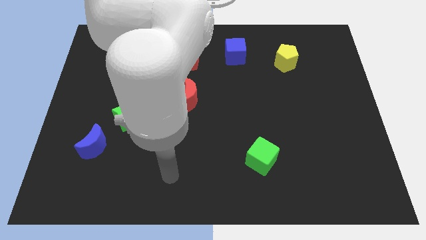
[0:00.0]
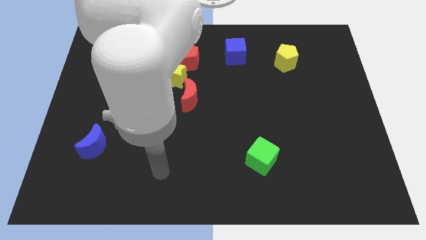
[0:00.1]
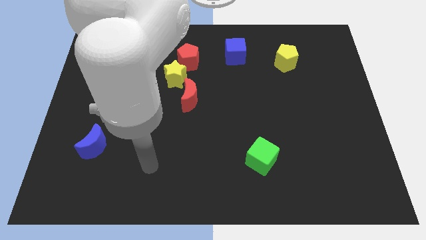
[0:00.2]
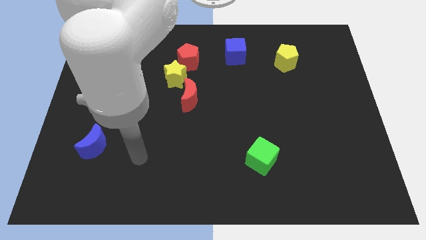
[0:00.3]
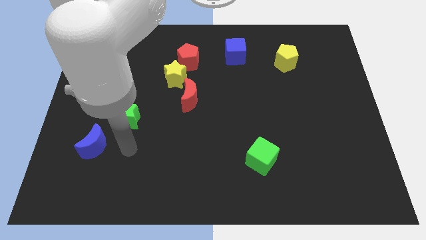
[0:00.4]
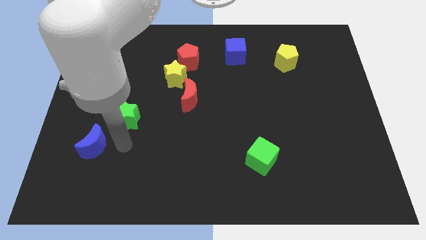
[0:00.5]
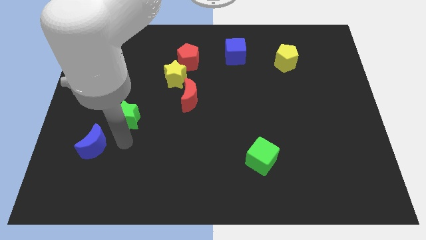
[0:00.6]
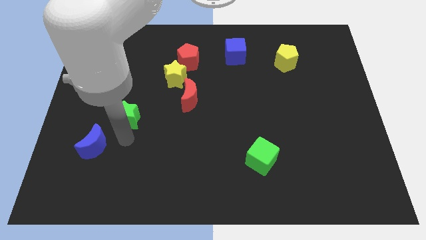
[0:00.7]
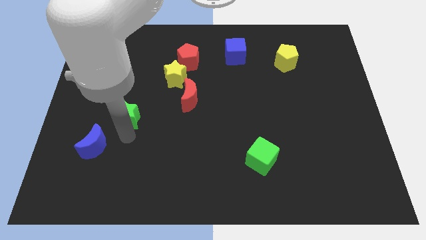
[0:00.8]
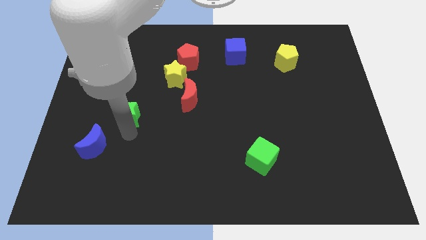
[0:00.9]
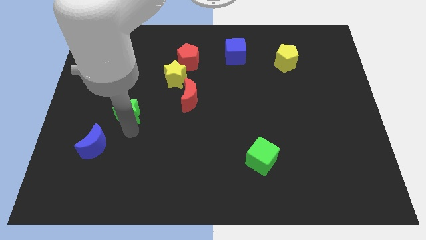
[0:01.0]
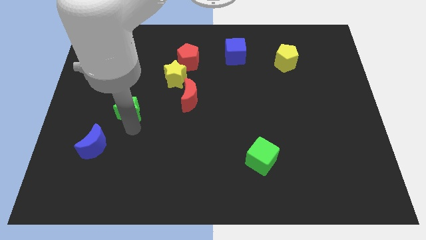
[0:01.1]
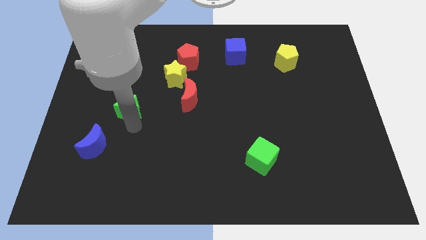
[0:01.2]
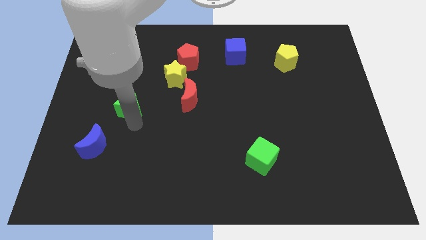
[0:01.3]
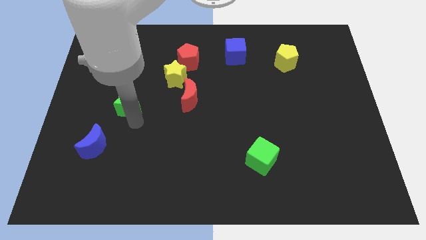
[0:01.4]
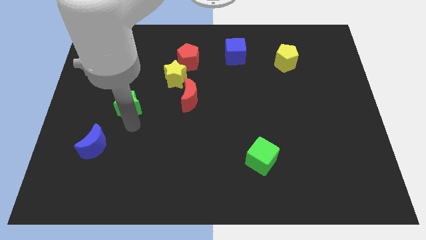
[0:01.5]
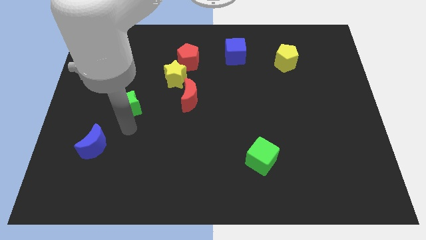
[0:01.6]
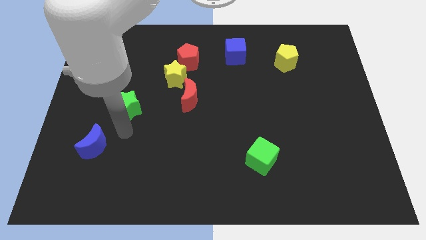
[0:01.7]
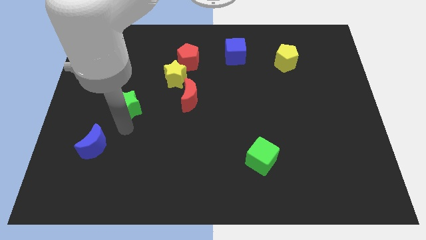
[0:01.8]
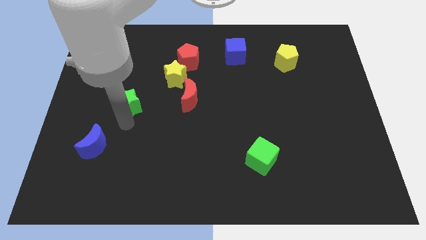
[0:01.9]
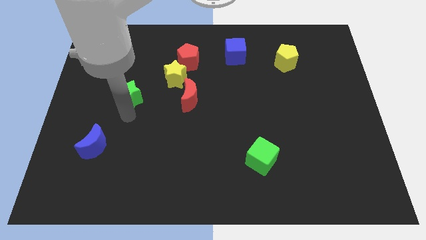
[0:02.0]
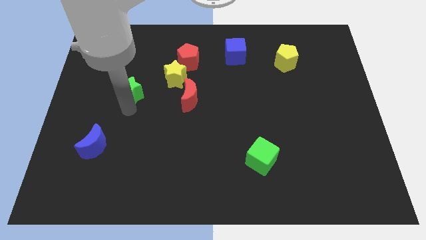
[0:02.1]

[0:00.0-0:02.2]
slightly slide the green star up

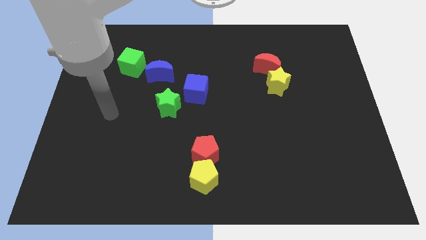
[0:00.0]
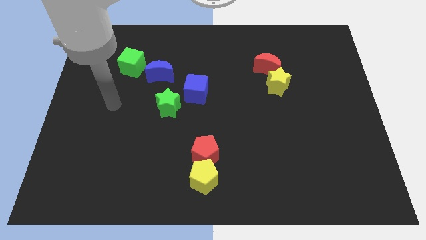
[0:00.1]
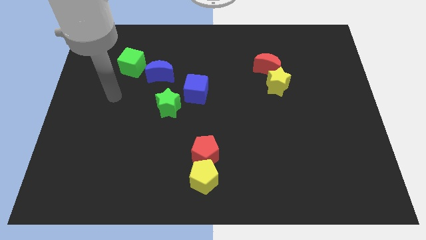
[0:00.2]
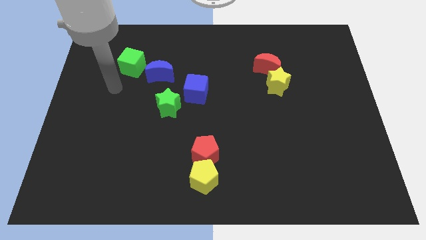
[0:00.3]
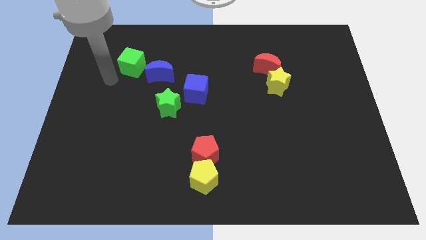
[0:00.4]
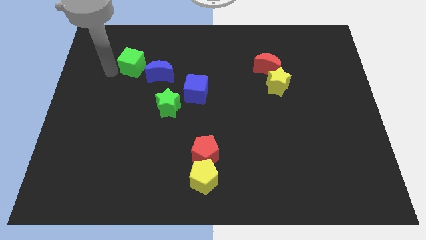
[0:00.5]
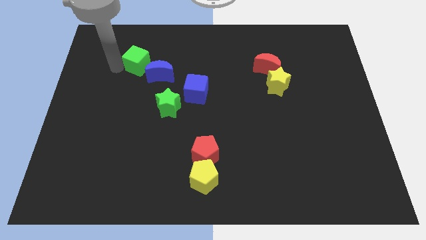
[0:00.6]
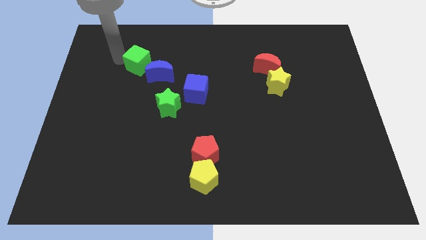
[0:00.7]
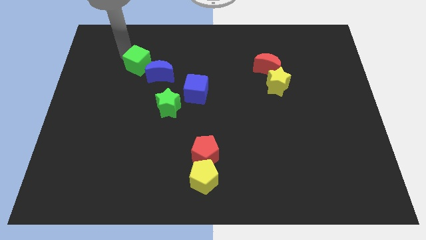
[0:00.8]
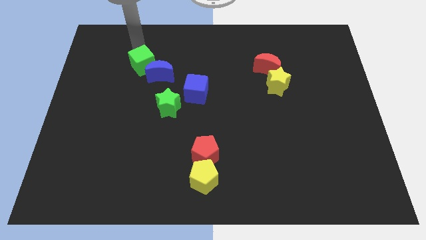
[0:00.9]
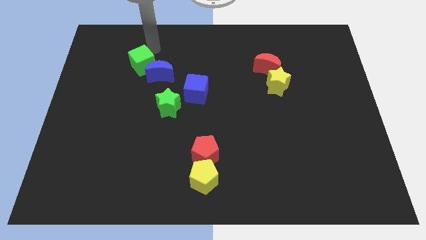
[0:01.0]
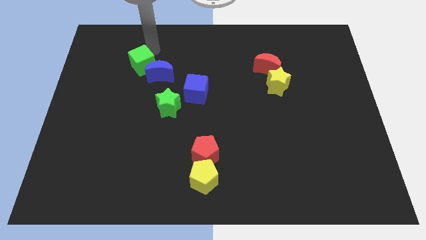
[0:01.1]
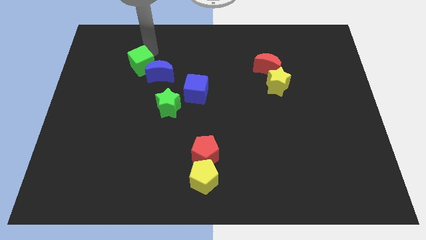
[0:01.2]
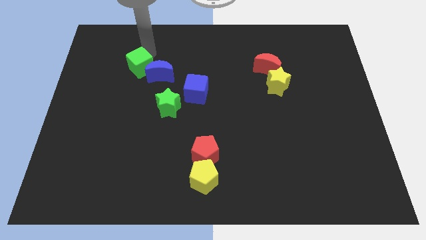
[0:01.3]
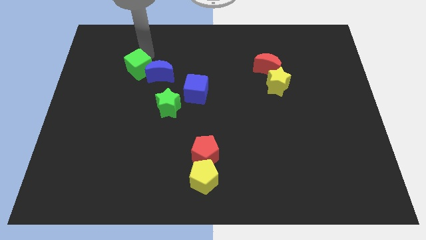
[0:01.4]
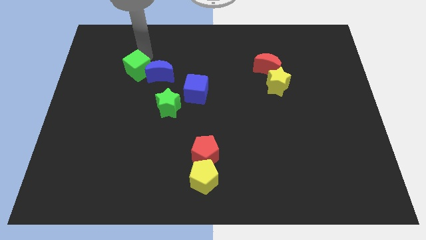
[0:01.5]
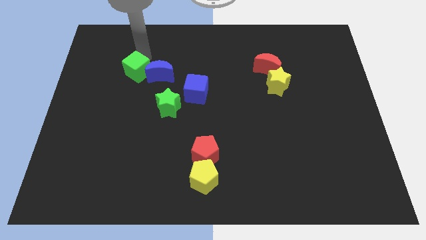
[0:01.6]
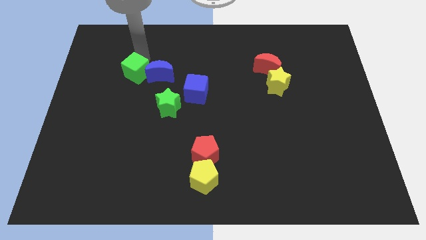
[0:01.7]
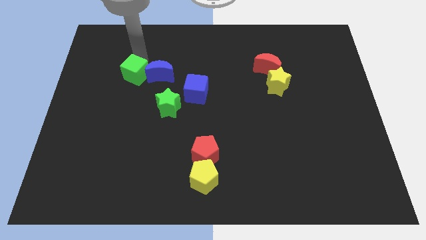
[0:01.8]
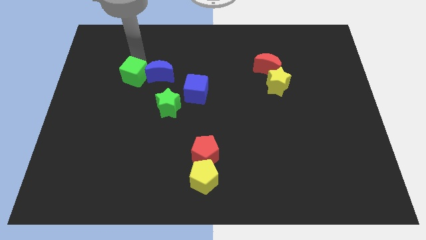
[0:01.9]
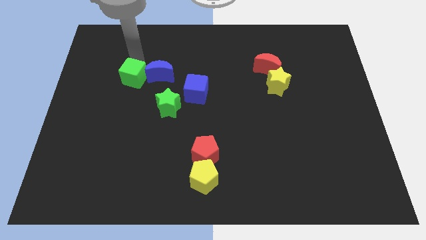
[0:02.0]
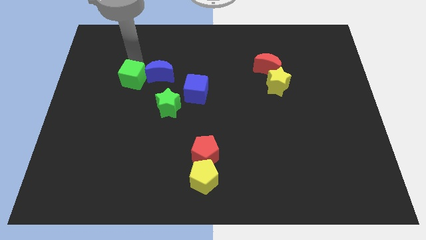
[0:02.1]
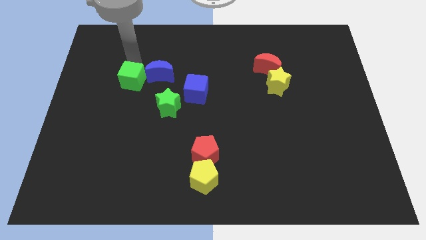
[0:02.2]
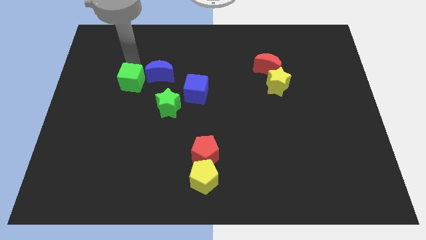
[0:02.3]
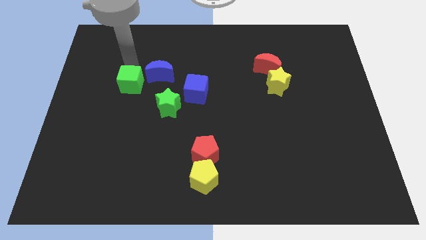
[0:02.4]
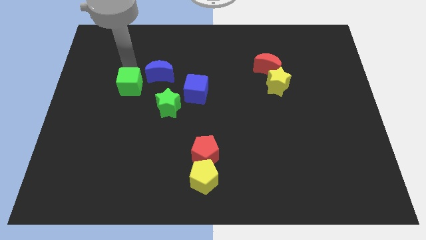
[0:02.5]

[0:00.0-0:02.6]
slightly push the green cube down

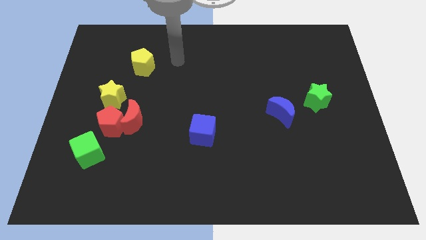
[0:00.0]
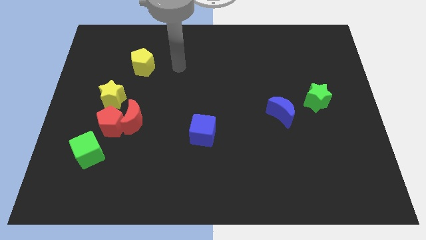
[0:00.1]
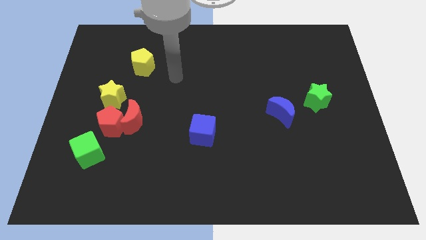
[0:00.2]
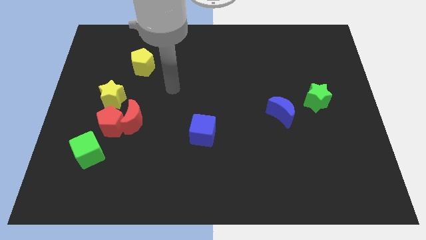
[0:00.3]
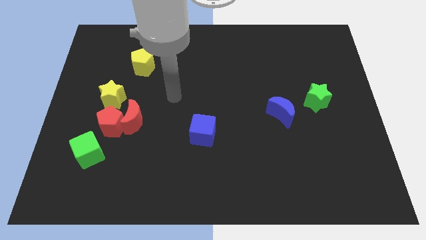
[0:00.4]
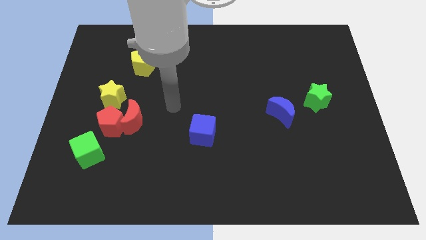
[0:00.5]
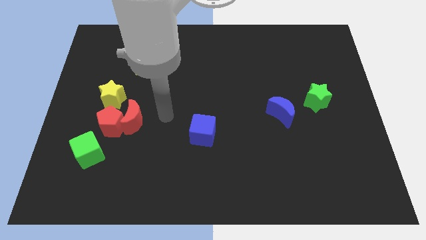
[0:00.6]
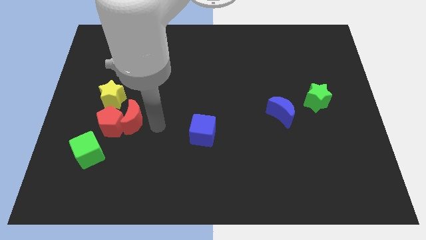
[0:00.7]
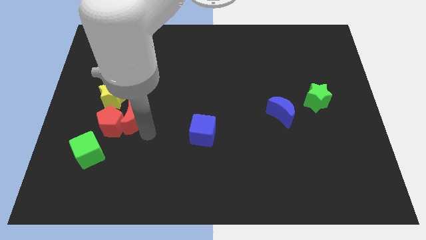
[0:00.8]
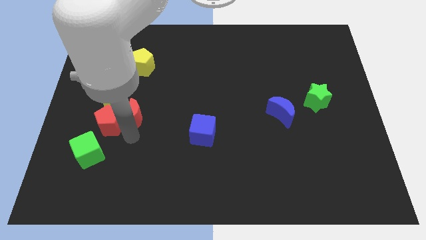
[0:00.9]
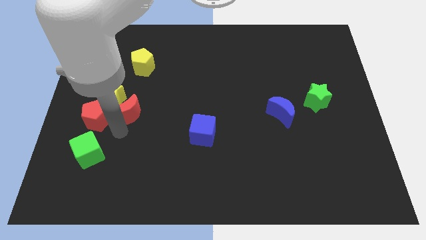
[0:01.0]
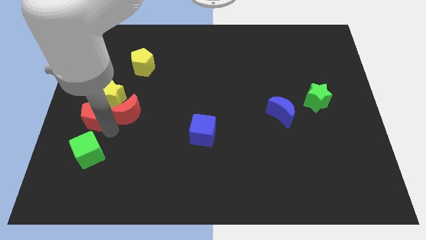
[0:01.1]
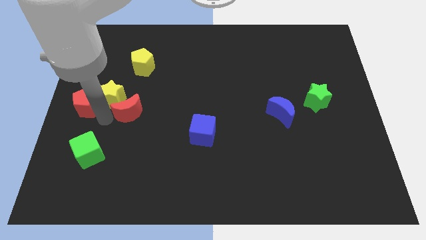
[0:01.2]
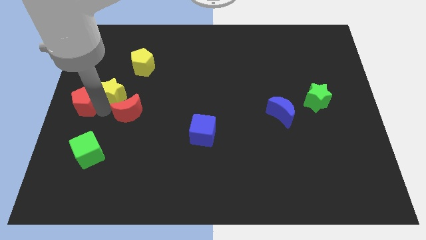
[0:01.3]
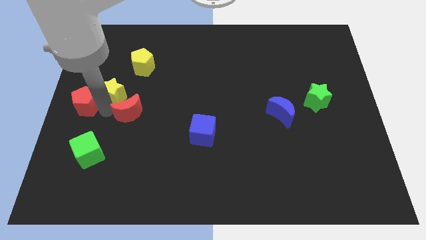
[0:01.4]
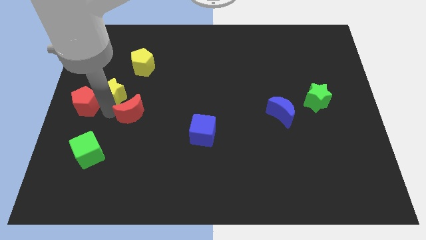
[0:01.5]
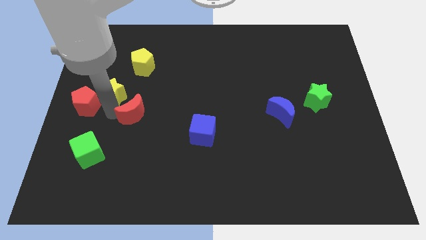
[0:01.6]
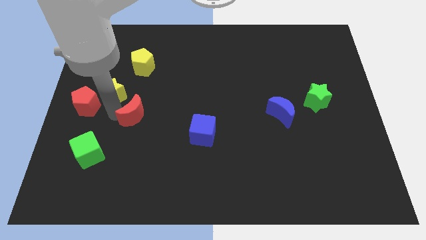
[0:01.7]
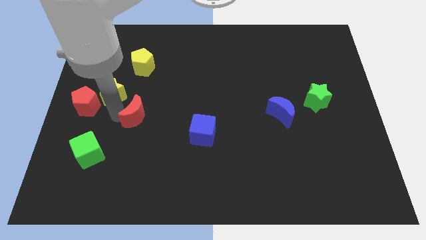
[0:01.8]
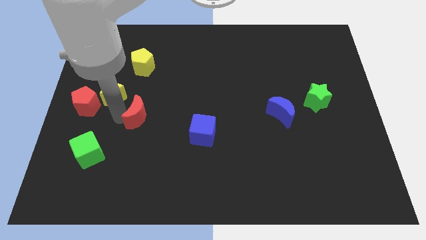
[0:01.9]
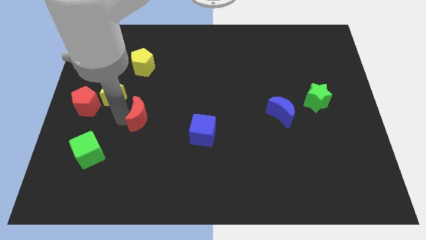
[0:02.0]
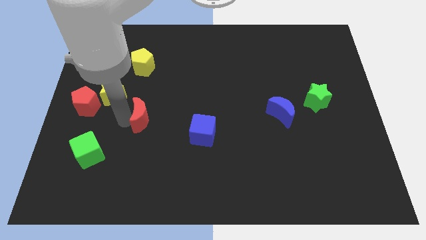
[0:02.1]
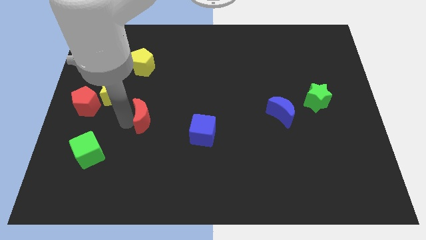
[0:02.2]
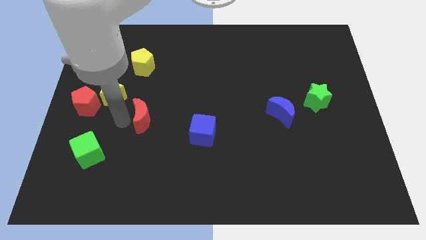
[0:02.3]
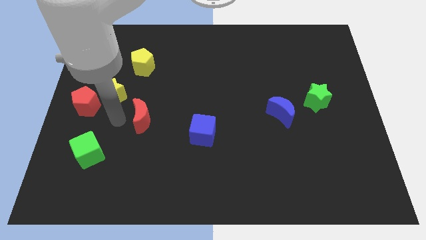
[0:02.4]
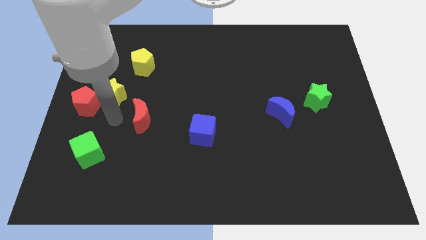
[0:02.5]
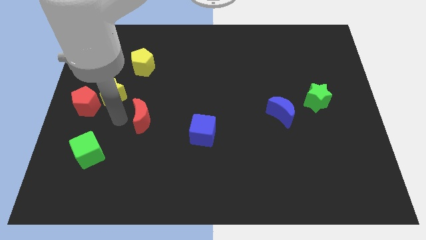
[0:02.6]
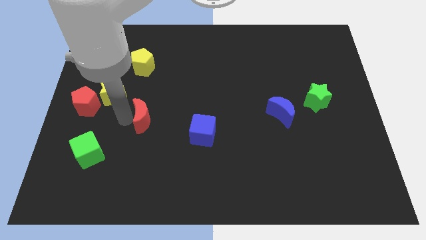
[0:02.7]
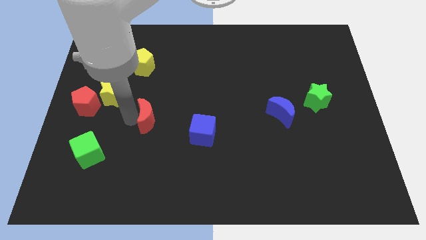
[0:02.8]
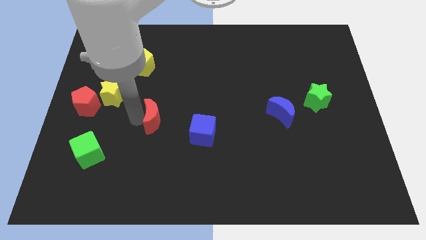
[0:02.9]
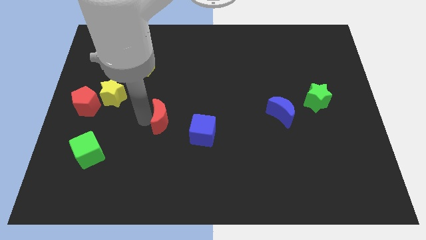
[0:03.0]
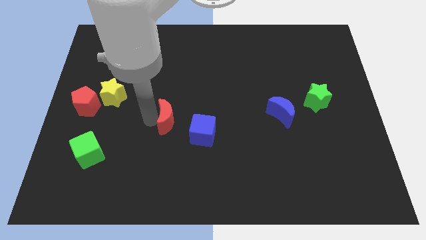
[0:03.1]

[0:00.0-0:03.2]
slide the red moon right somewhat
